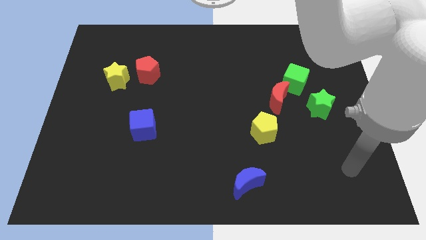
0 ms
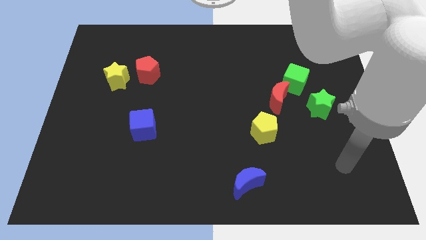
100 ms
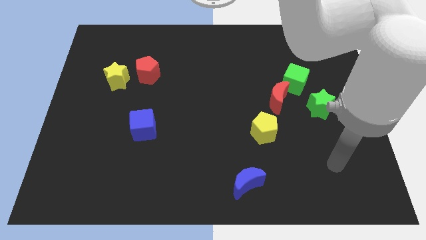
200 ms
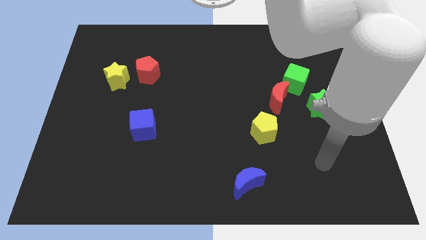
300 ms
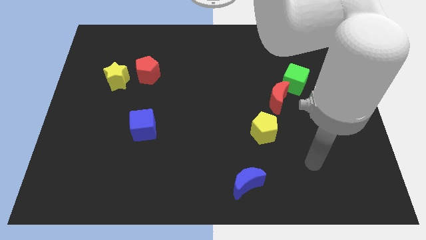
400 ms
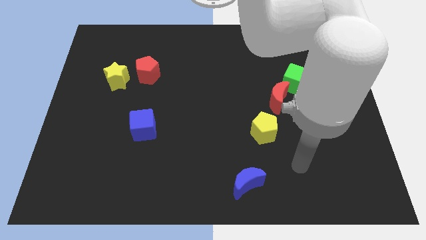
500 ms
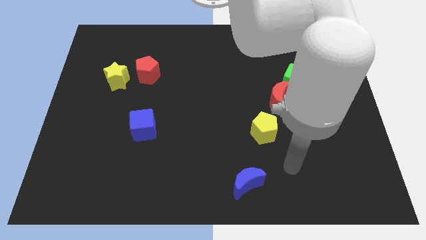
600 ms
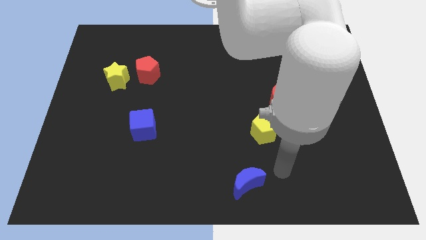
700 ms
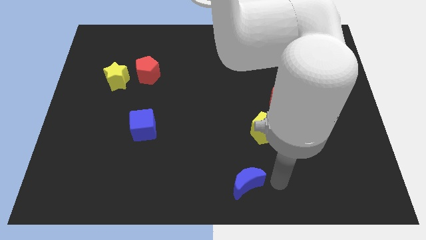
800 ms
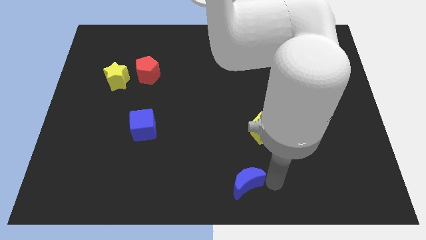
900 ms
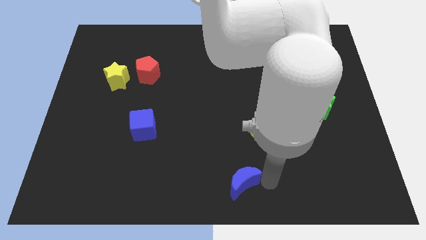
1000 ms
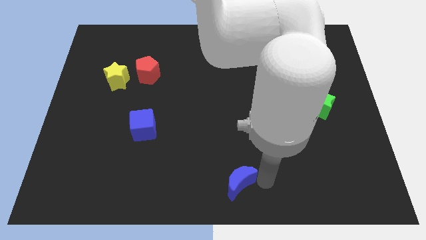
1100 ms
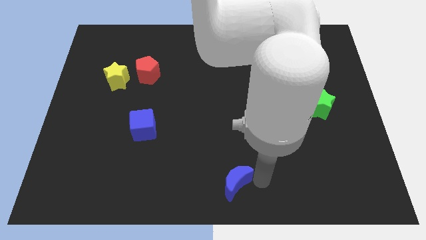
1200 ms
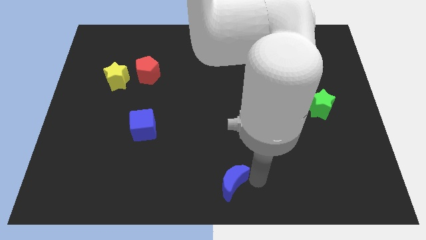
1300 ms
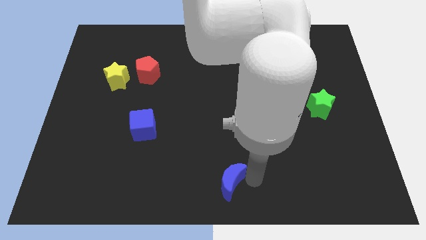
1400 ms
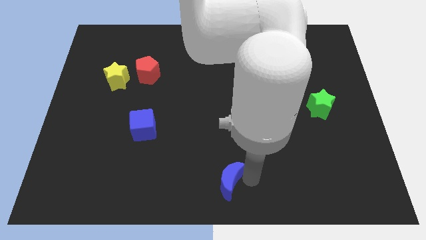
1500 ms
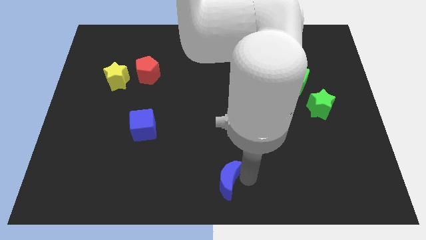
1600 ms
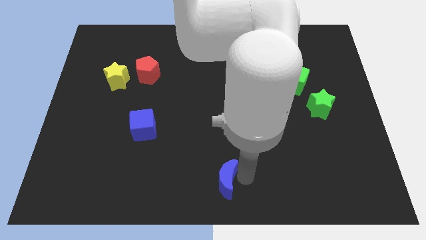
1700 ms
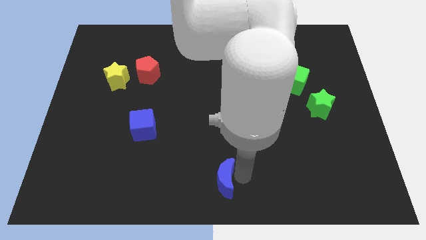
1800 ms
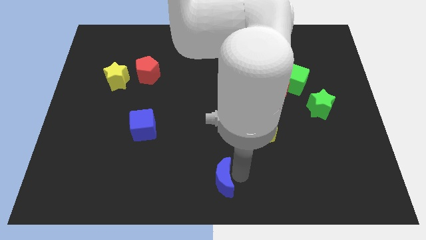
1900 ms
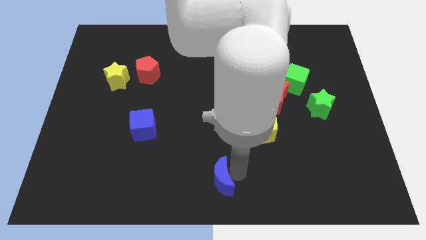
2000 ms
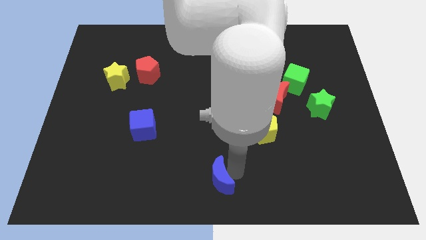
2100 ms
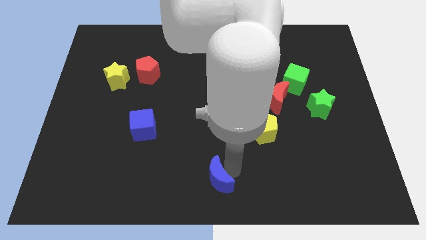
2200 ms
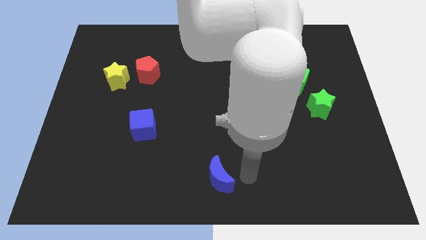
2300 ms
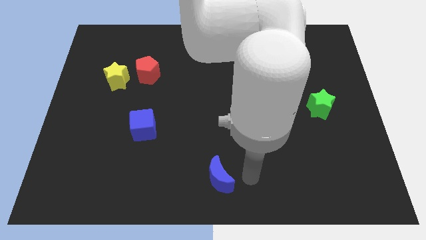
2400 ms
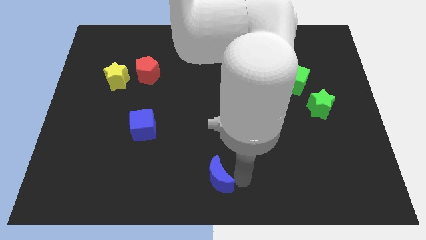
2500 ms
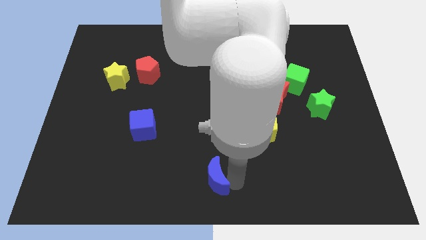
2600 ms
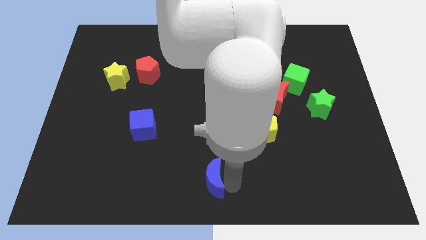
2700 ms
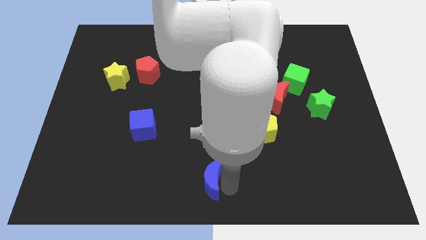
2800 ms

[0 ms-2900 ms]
move the blue moon to the left a little

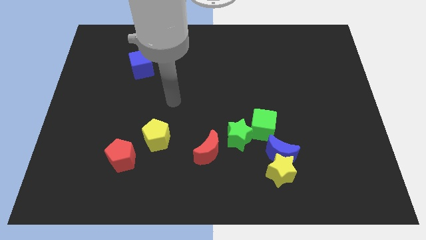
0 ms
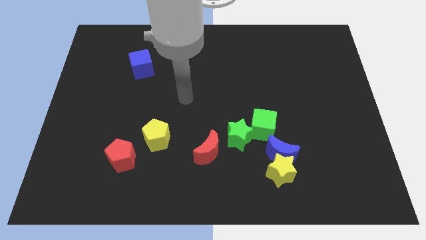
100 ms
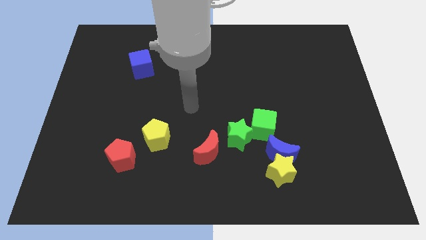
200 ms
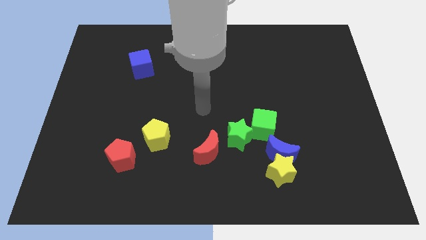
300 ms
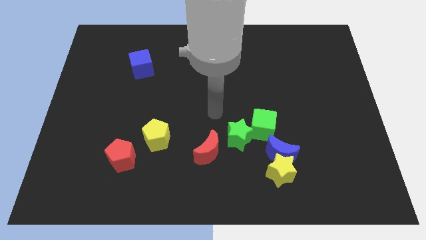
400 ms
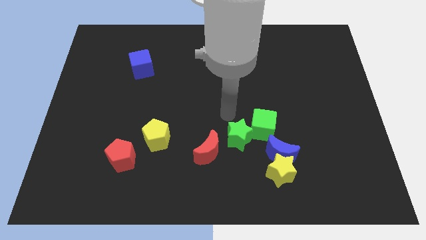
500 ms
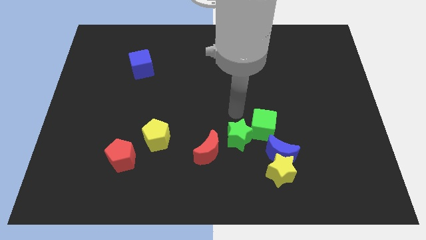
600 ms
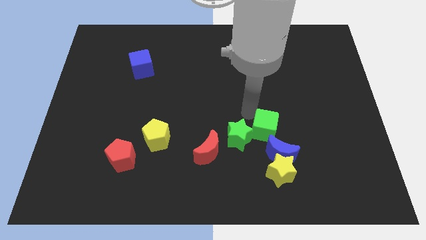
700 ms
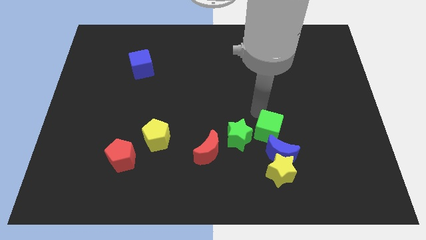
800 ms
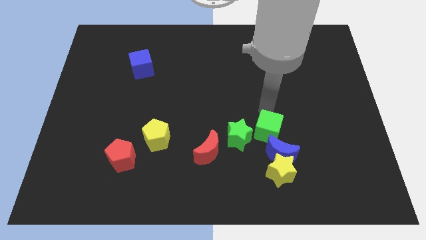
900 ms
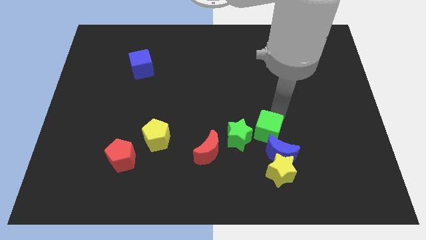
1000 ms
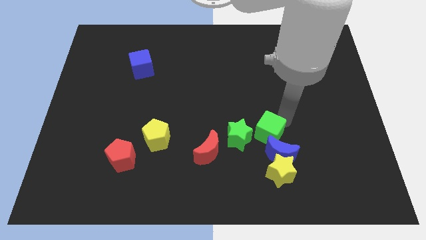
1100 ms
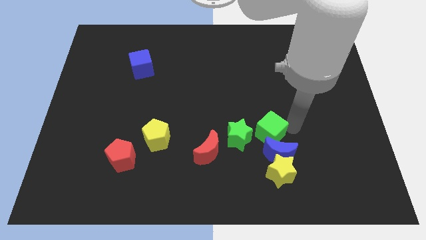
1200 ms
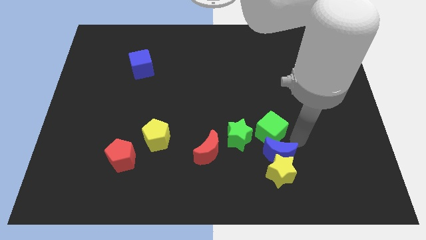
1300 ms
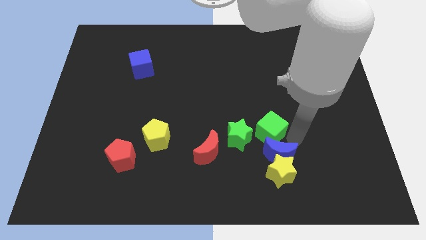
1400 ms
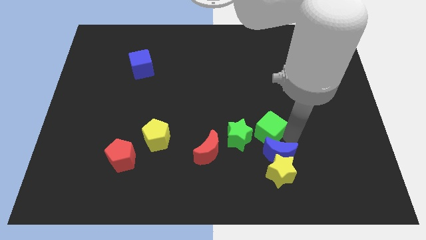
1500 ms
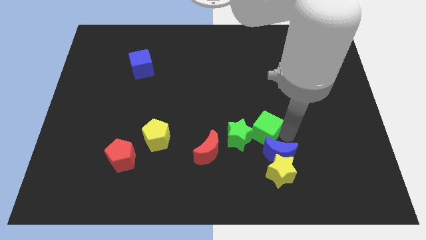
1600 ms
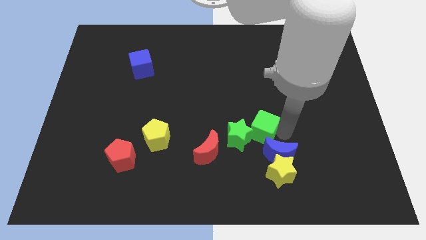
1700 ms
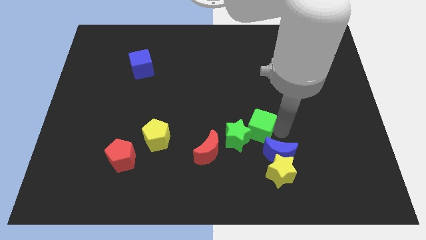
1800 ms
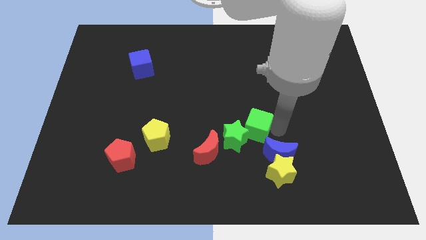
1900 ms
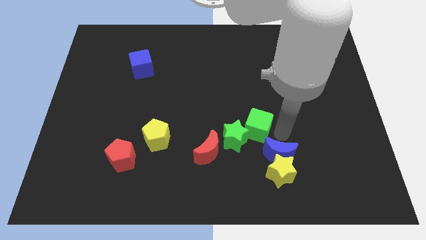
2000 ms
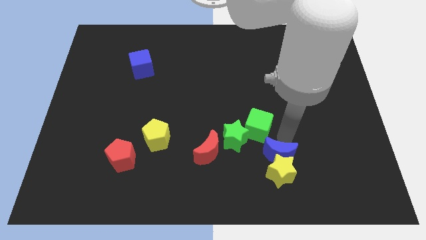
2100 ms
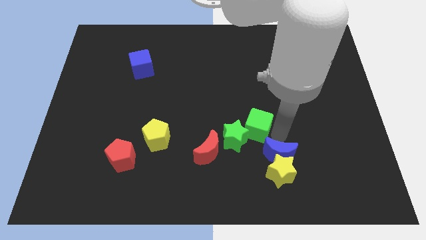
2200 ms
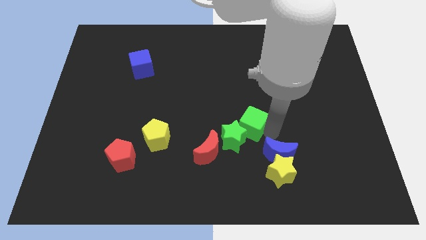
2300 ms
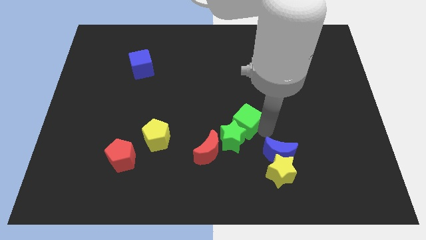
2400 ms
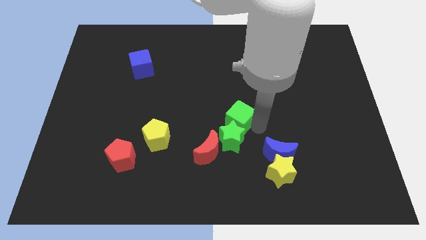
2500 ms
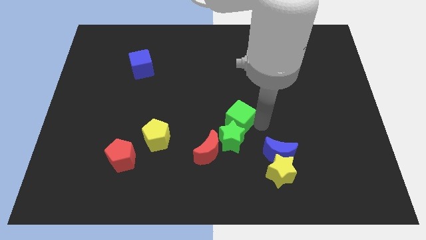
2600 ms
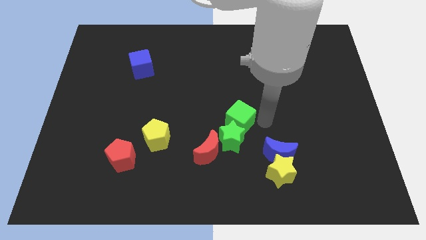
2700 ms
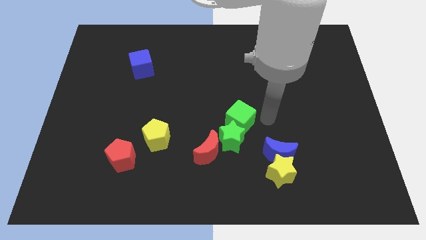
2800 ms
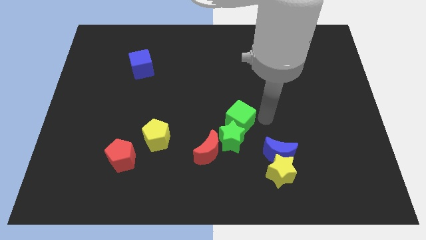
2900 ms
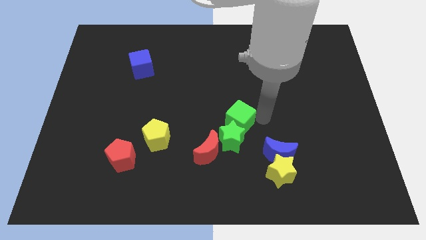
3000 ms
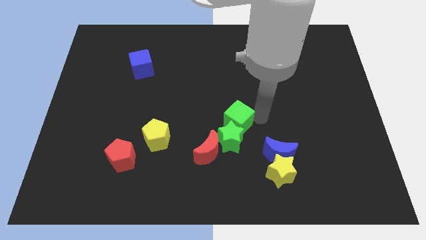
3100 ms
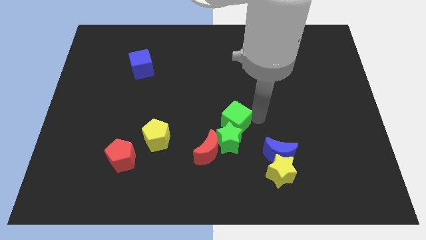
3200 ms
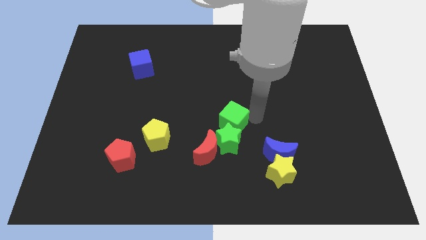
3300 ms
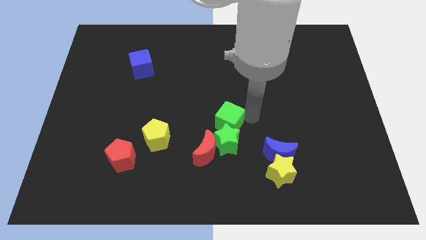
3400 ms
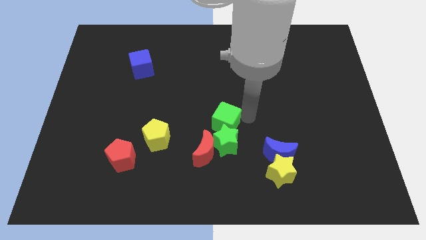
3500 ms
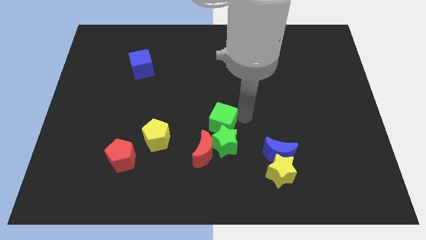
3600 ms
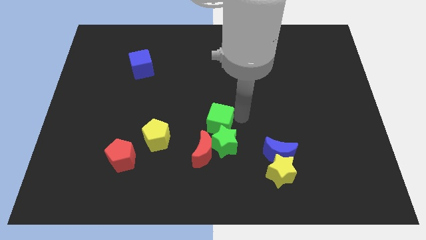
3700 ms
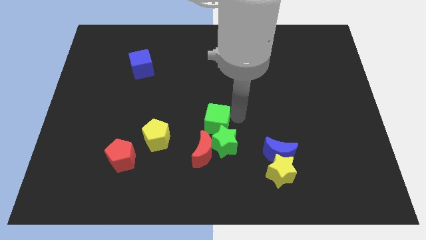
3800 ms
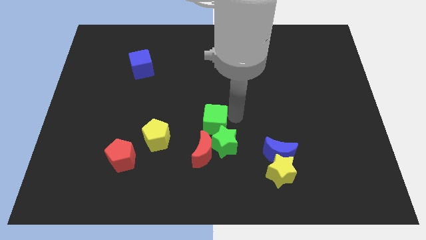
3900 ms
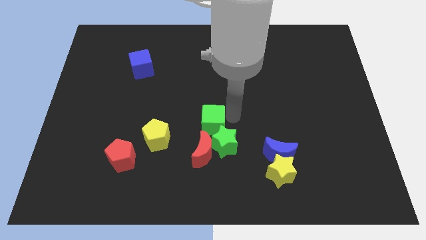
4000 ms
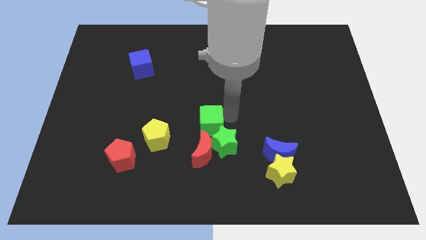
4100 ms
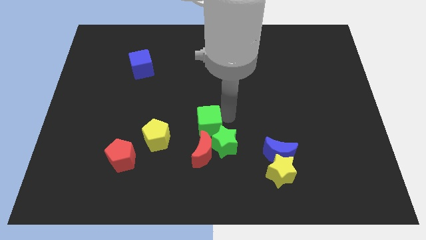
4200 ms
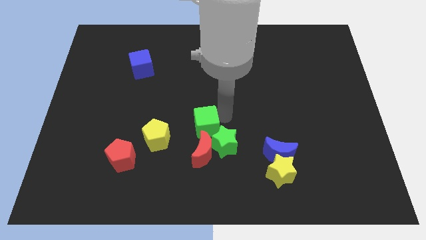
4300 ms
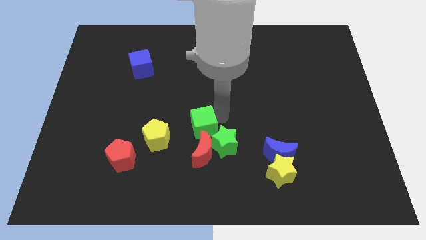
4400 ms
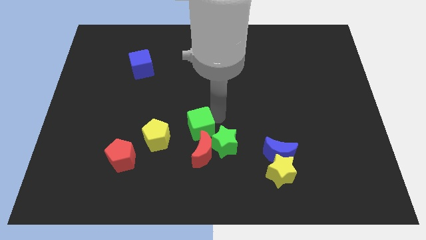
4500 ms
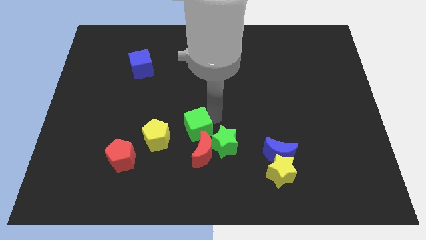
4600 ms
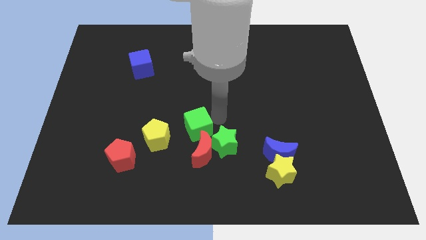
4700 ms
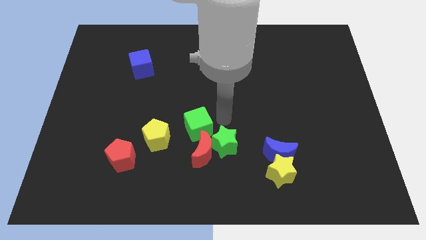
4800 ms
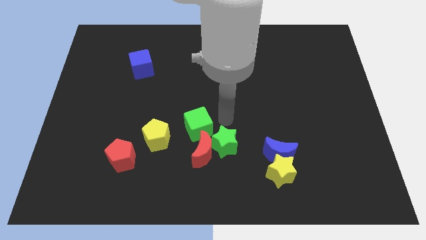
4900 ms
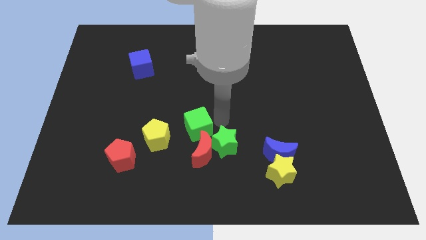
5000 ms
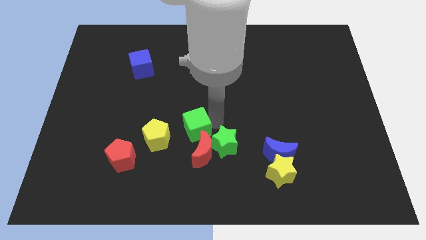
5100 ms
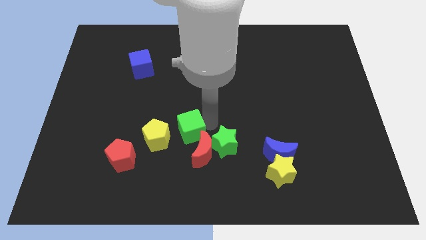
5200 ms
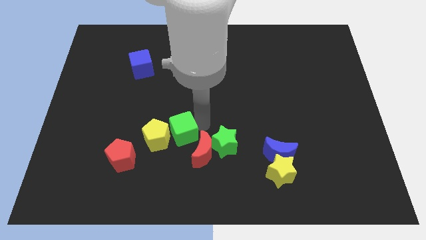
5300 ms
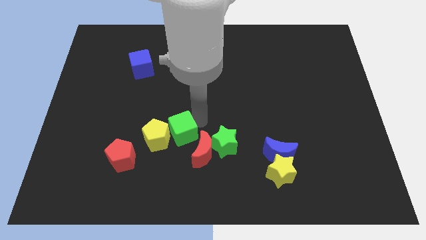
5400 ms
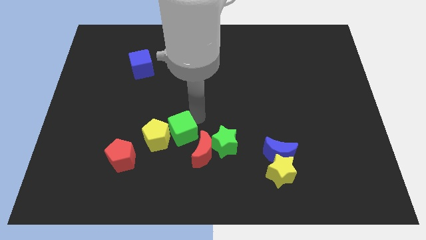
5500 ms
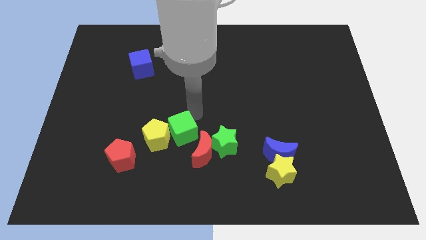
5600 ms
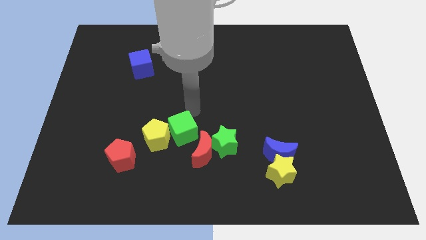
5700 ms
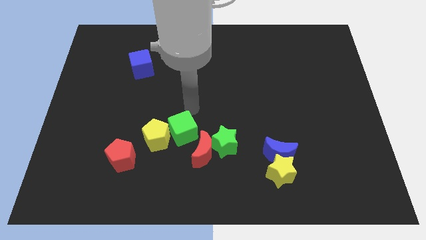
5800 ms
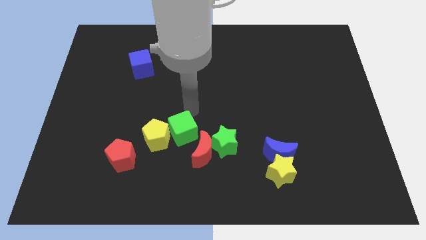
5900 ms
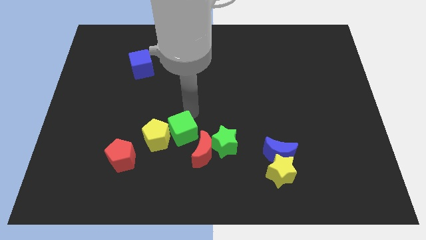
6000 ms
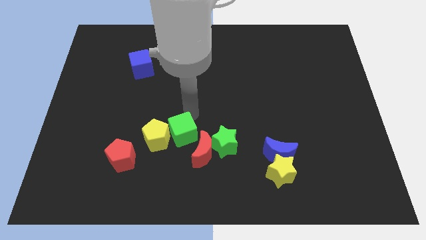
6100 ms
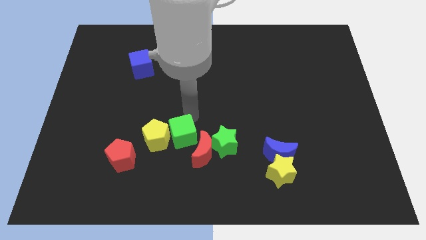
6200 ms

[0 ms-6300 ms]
slide the green cube diagonally down and left a little
